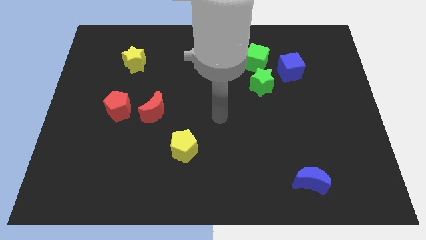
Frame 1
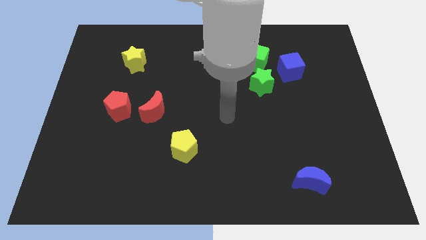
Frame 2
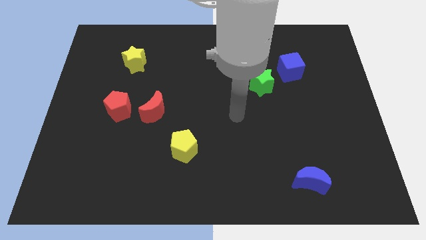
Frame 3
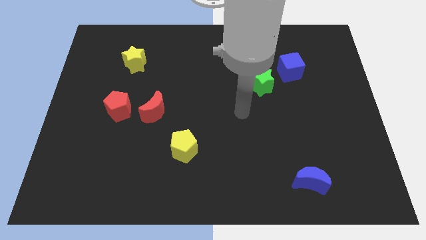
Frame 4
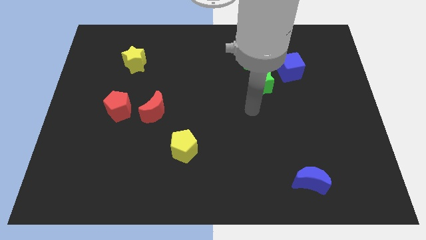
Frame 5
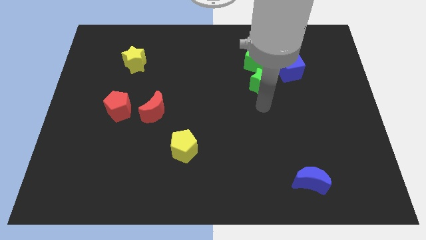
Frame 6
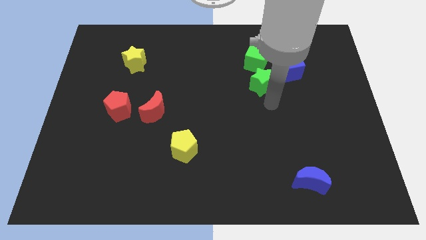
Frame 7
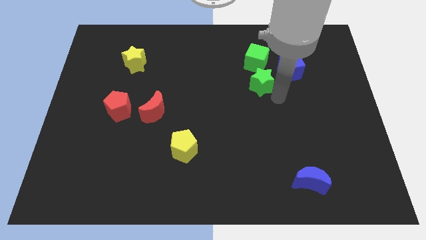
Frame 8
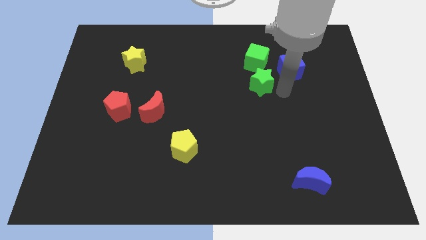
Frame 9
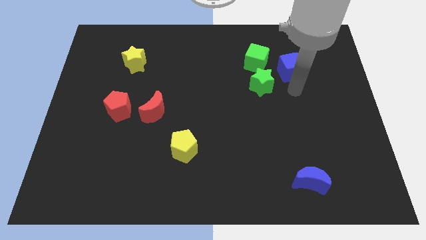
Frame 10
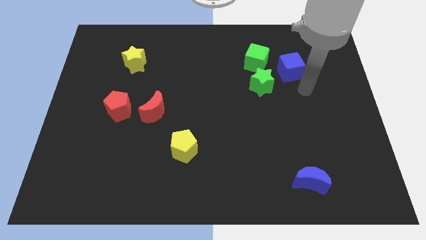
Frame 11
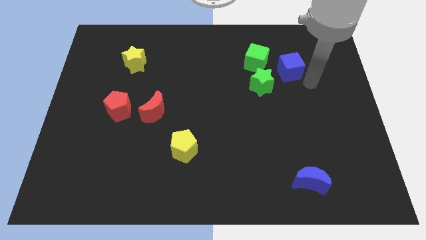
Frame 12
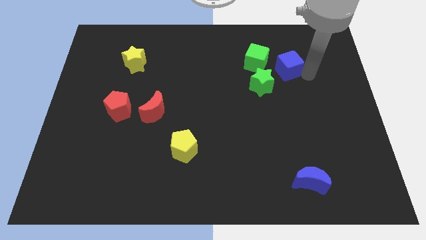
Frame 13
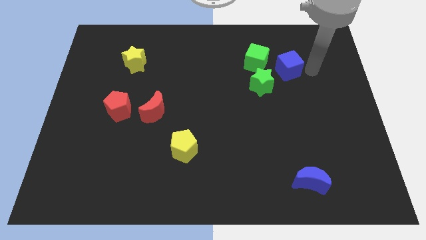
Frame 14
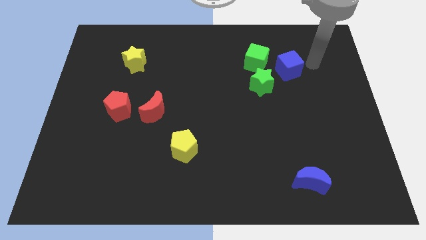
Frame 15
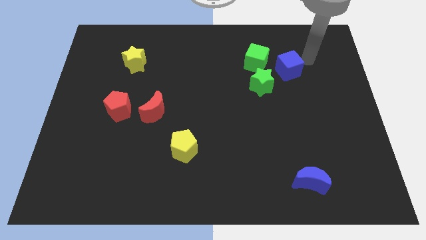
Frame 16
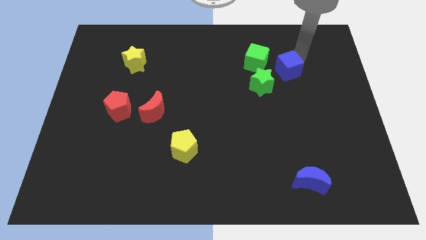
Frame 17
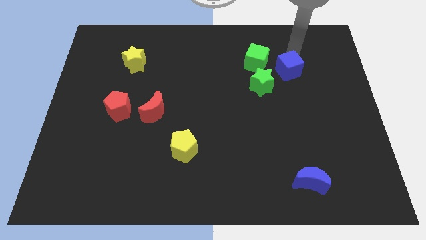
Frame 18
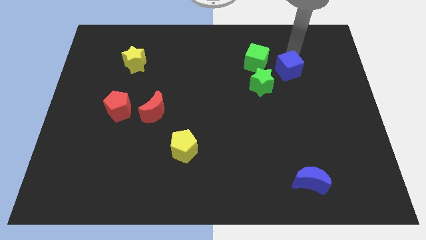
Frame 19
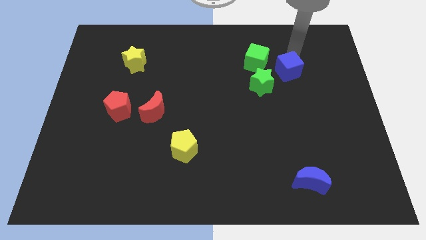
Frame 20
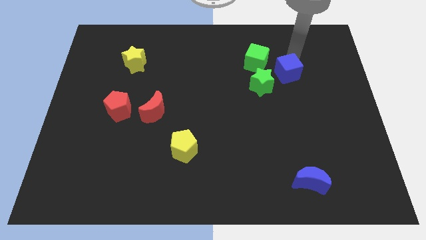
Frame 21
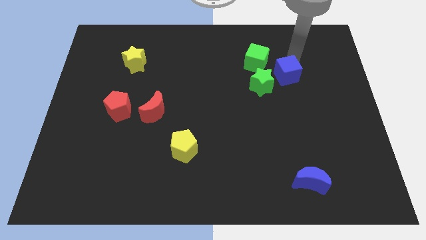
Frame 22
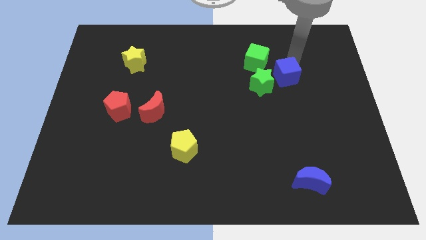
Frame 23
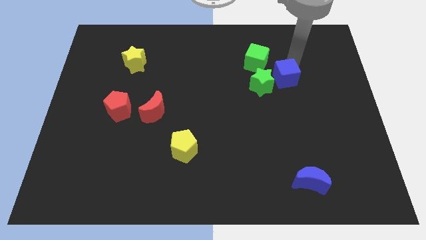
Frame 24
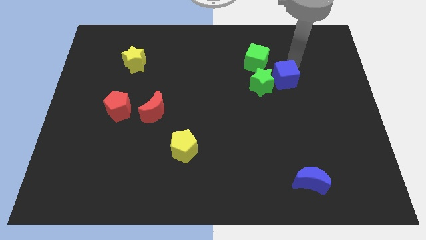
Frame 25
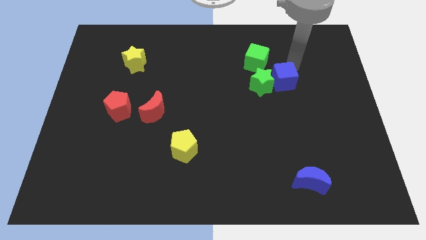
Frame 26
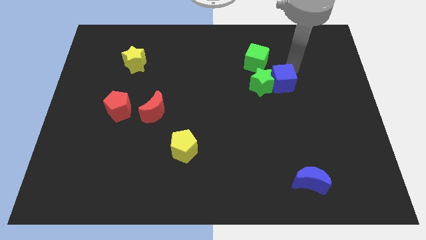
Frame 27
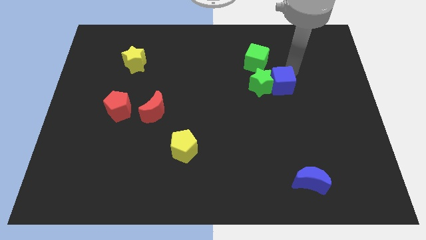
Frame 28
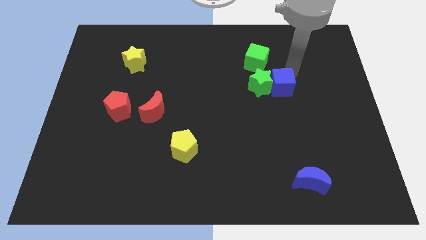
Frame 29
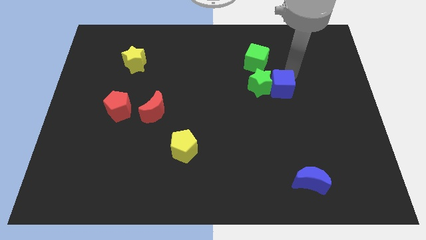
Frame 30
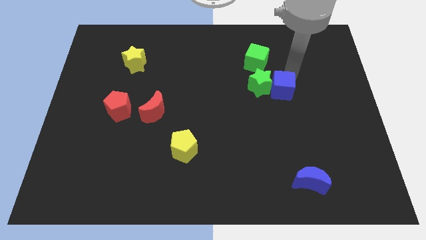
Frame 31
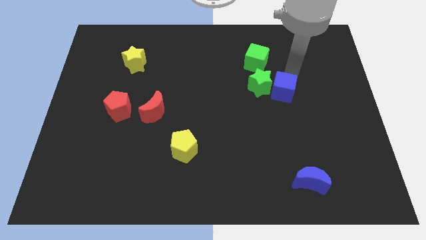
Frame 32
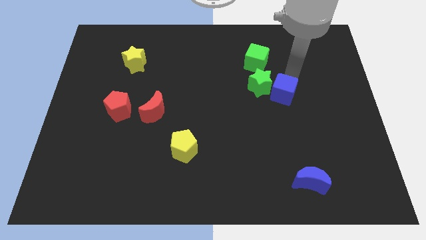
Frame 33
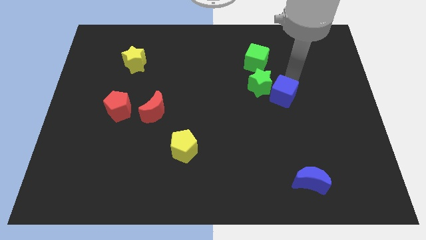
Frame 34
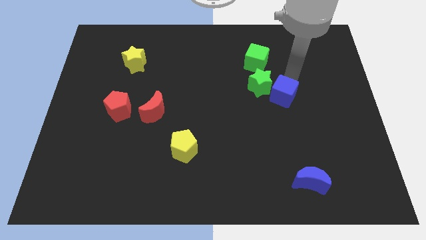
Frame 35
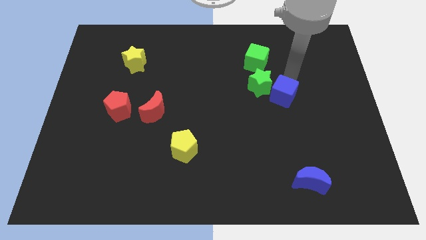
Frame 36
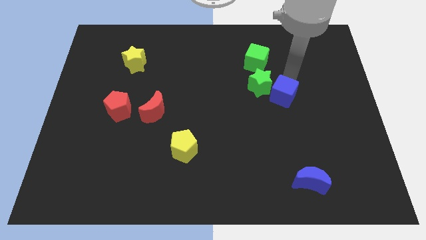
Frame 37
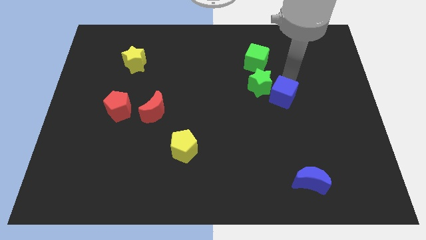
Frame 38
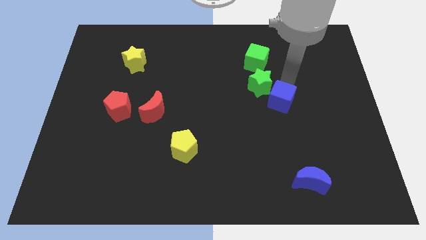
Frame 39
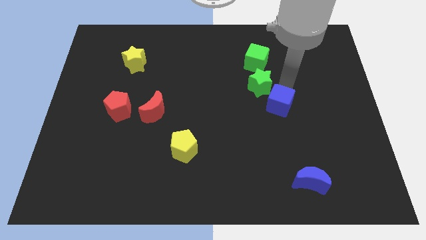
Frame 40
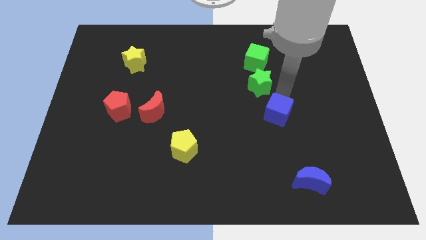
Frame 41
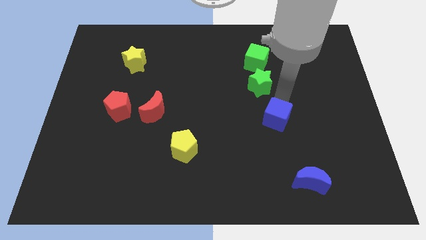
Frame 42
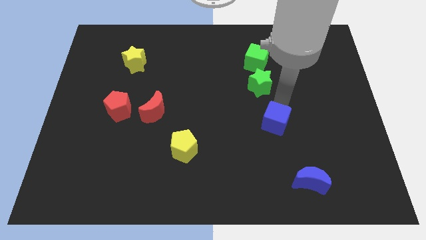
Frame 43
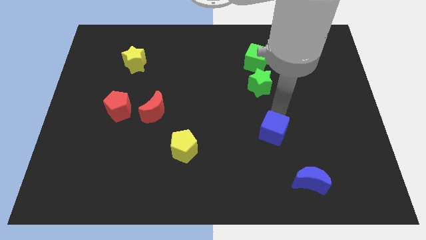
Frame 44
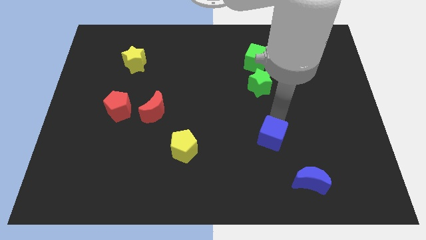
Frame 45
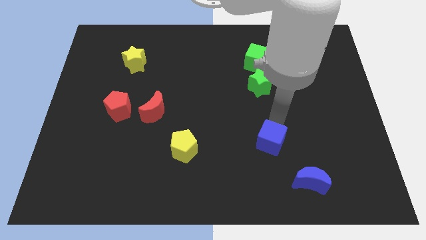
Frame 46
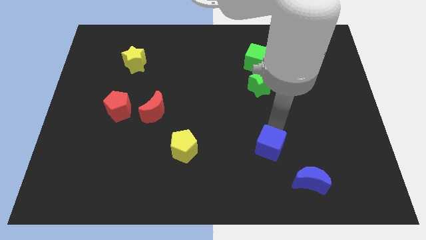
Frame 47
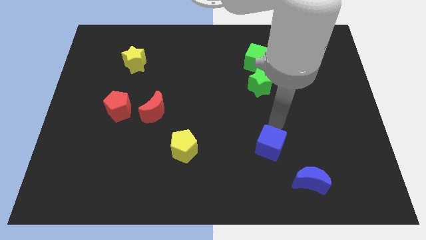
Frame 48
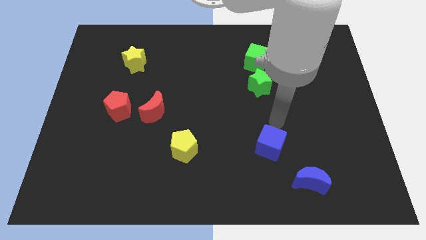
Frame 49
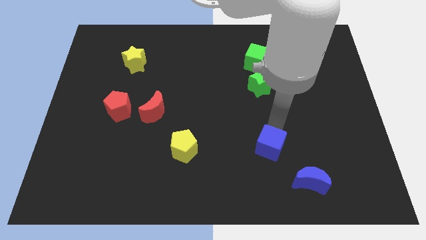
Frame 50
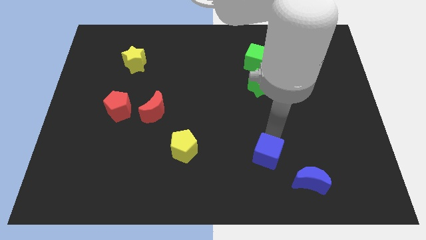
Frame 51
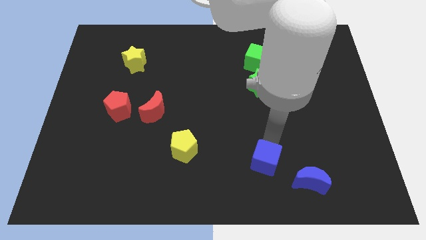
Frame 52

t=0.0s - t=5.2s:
push the blue cube left of the blue moon

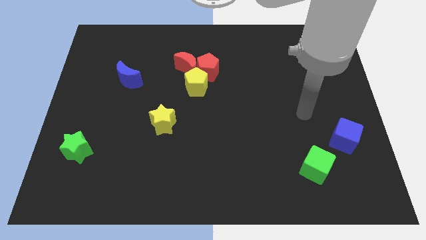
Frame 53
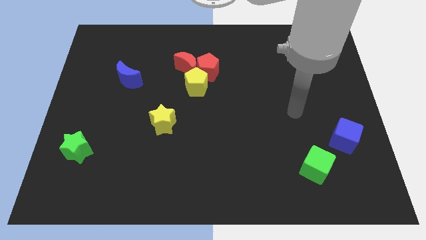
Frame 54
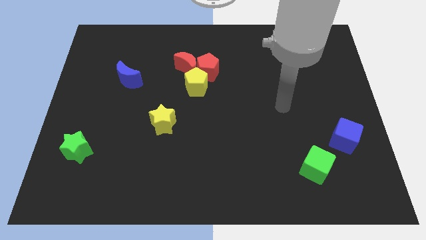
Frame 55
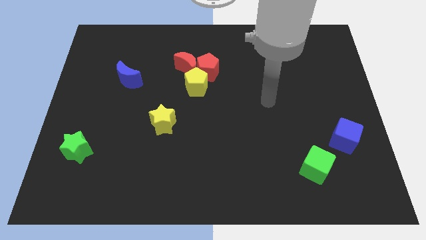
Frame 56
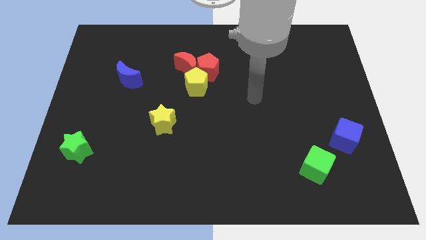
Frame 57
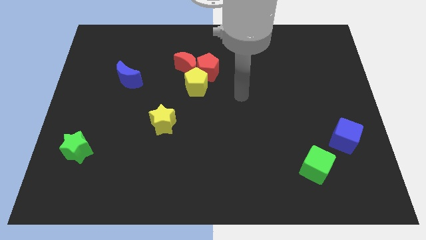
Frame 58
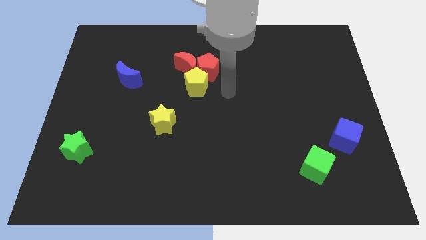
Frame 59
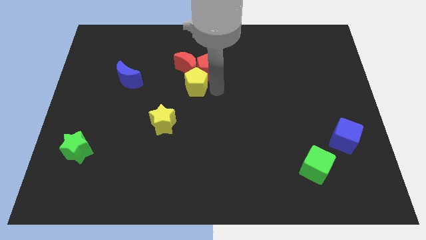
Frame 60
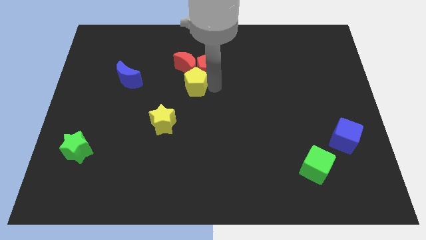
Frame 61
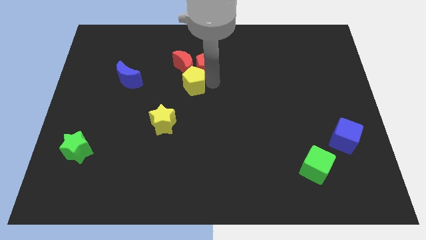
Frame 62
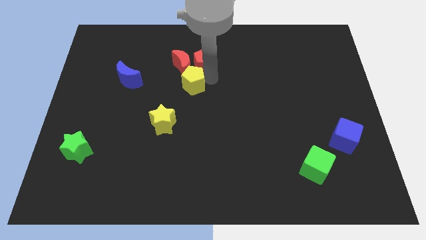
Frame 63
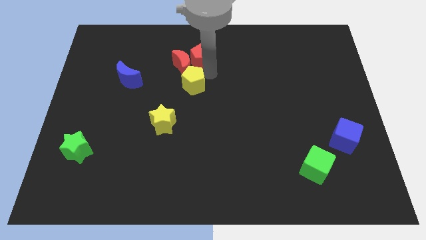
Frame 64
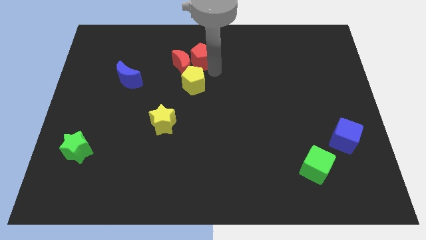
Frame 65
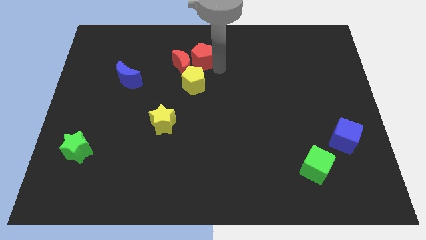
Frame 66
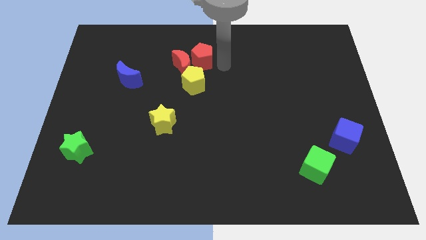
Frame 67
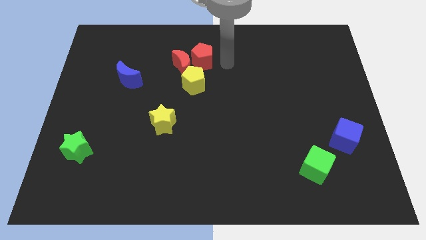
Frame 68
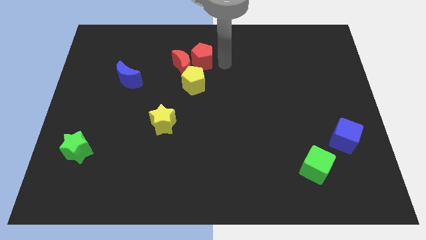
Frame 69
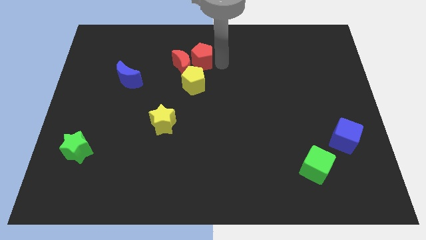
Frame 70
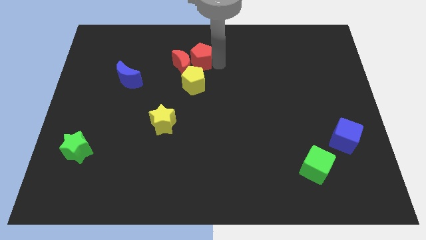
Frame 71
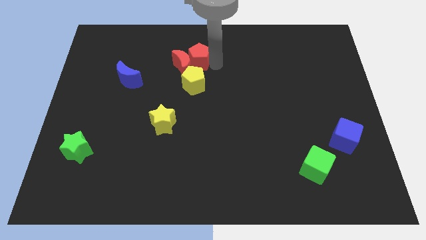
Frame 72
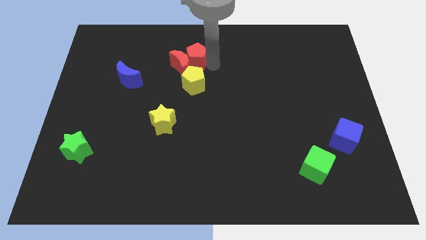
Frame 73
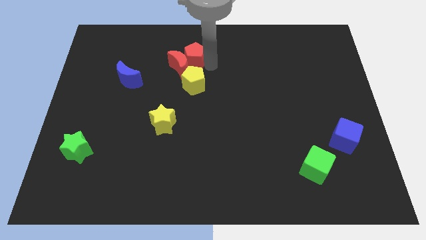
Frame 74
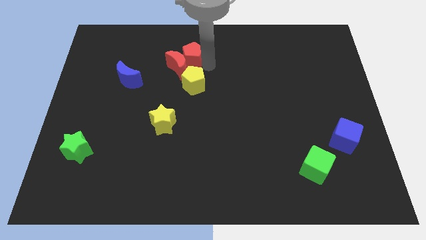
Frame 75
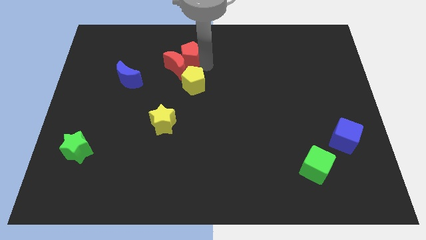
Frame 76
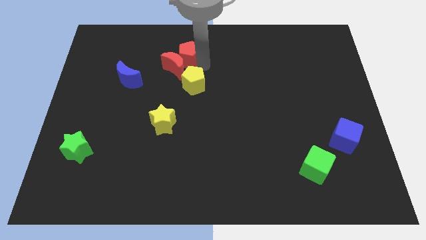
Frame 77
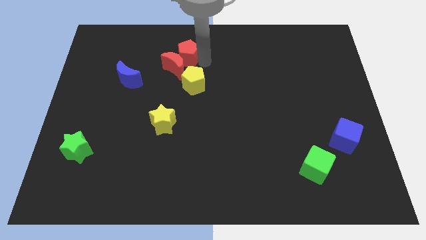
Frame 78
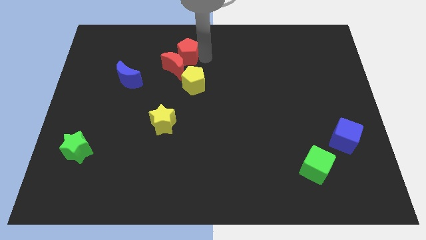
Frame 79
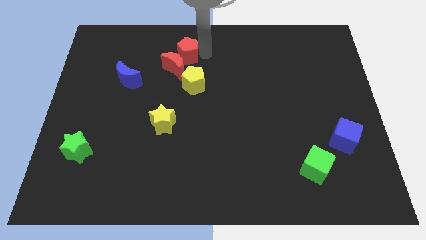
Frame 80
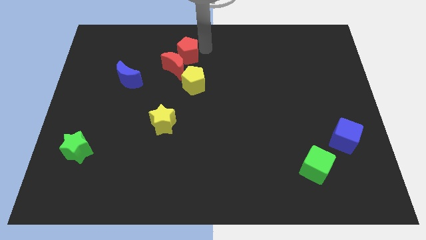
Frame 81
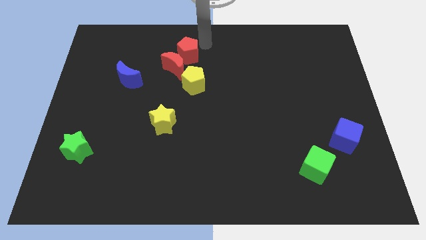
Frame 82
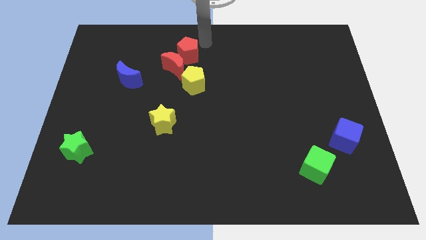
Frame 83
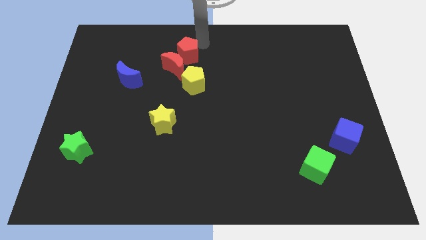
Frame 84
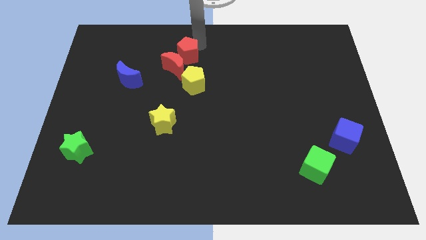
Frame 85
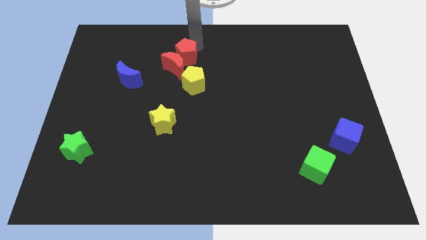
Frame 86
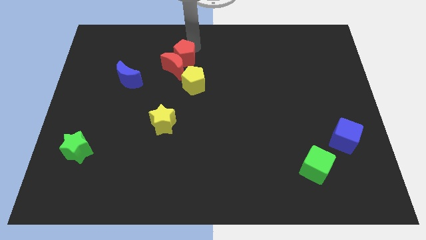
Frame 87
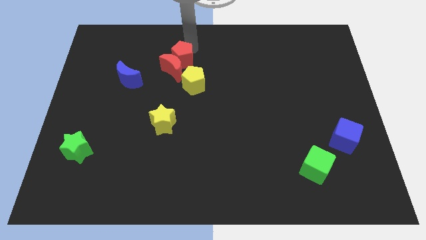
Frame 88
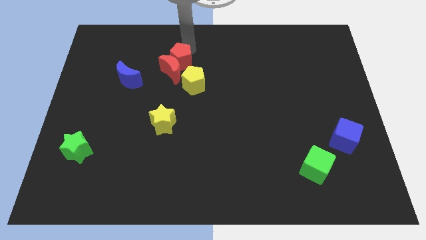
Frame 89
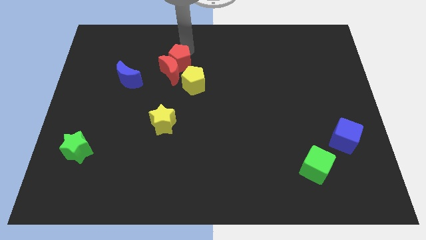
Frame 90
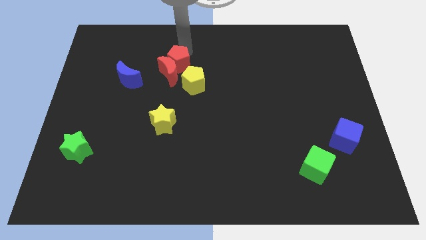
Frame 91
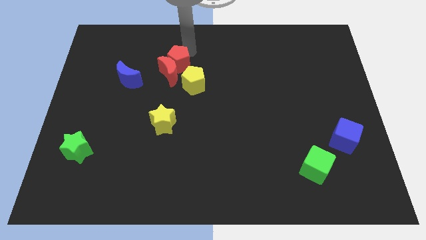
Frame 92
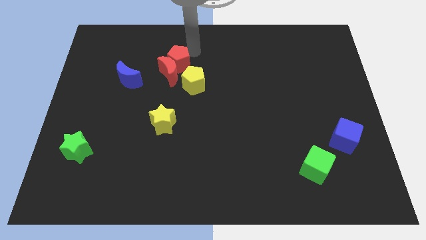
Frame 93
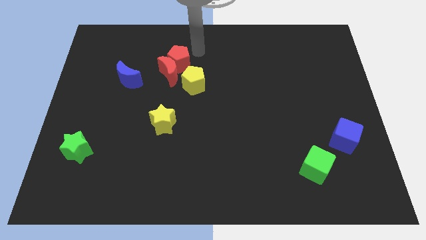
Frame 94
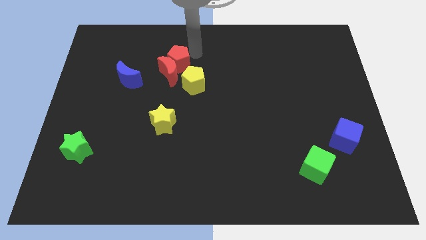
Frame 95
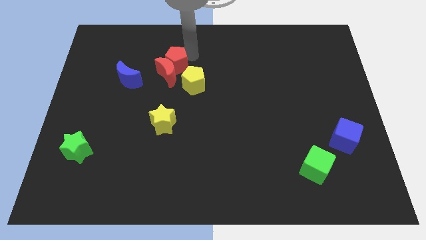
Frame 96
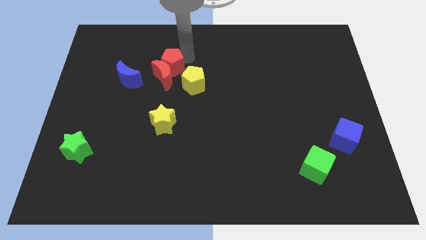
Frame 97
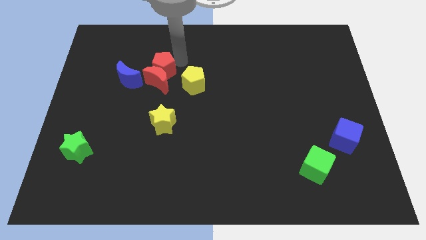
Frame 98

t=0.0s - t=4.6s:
slide the red pentagon just left of the yellow pentagon
